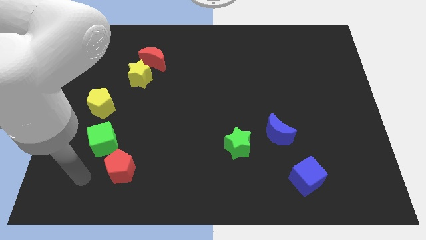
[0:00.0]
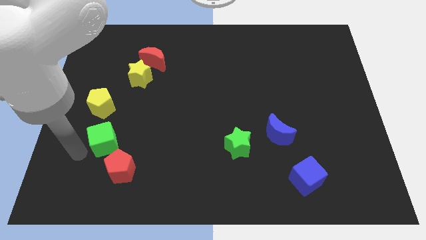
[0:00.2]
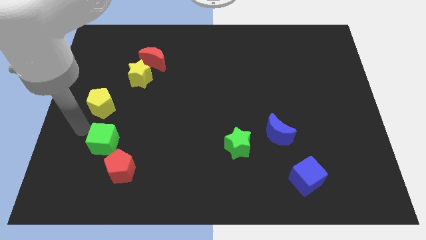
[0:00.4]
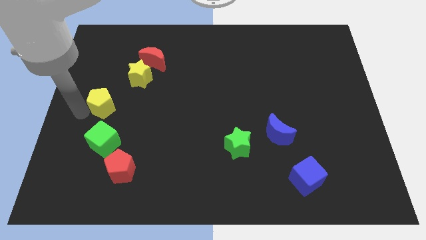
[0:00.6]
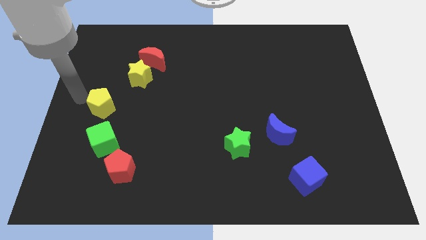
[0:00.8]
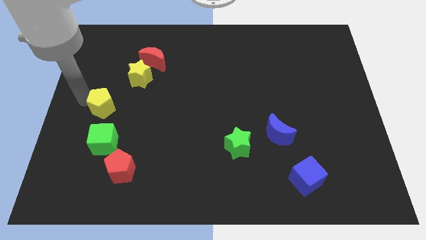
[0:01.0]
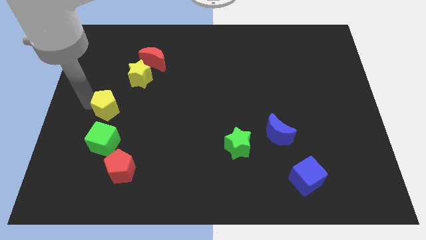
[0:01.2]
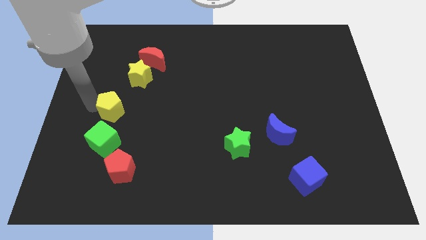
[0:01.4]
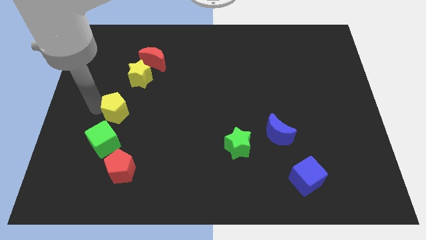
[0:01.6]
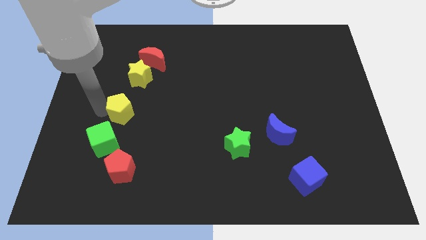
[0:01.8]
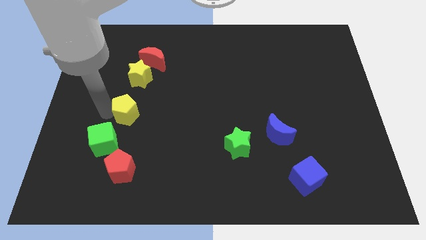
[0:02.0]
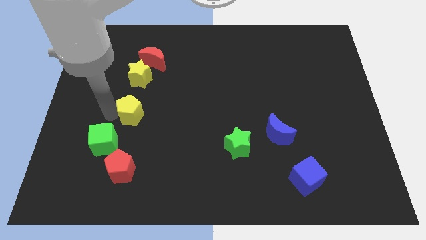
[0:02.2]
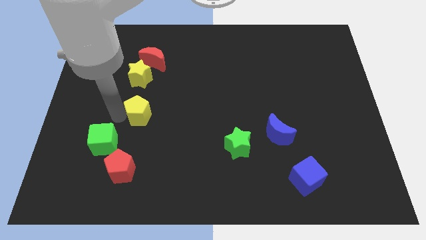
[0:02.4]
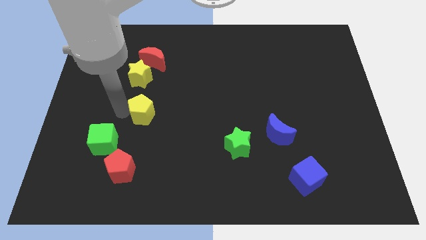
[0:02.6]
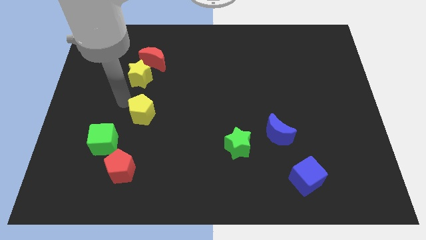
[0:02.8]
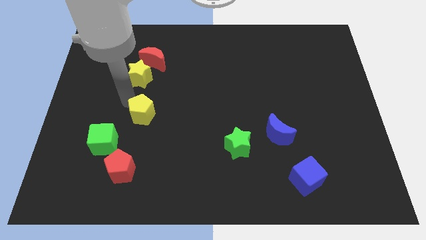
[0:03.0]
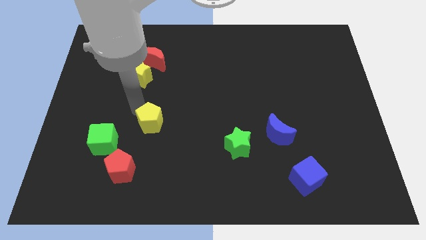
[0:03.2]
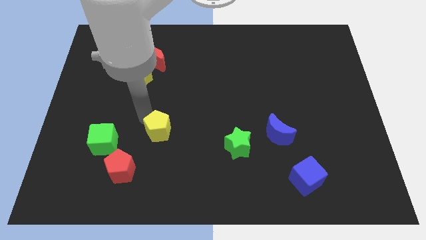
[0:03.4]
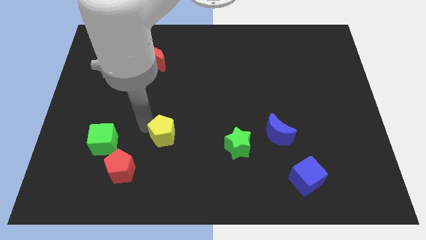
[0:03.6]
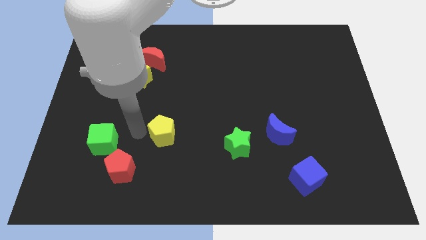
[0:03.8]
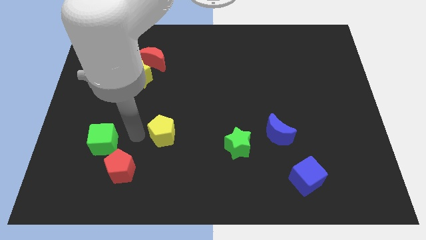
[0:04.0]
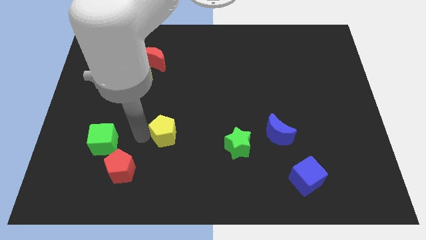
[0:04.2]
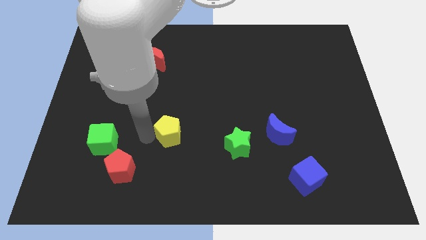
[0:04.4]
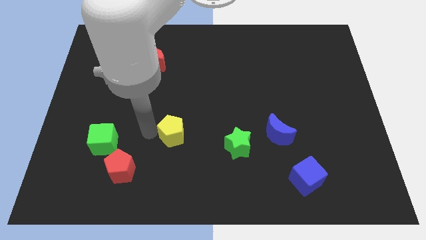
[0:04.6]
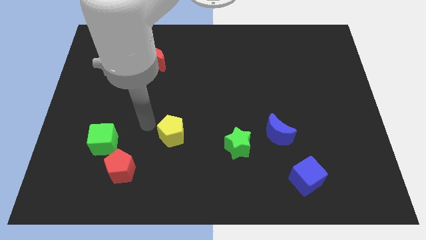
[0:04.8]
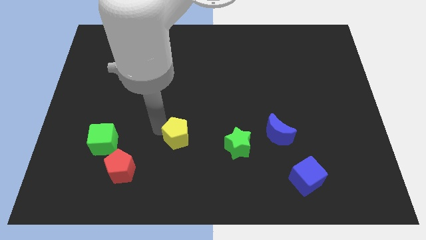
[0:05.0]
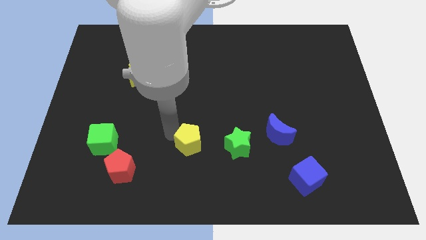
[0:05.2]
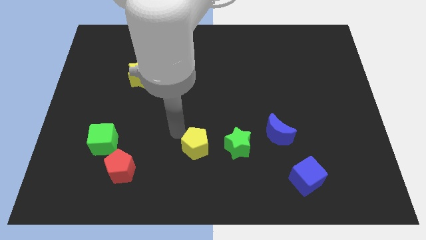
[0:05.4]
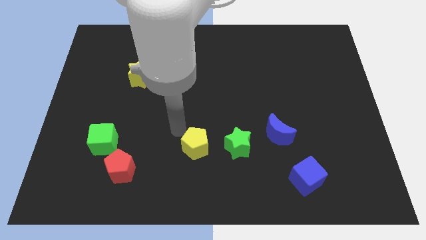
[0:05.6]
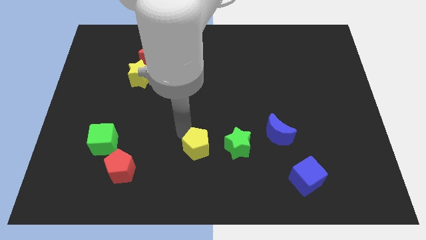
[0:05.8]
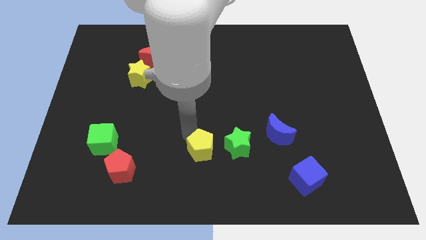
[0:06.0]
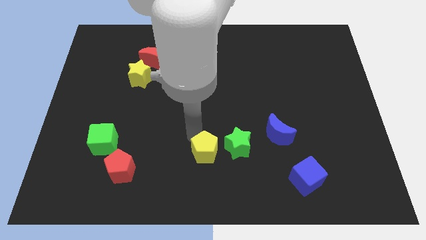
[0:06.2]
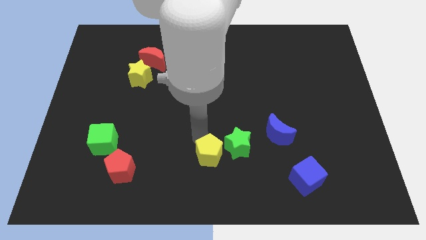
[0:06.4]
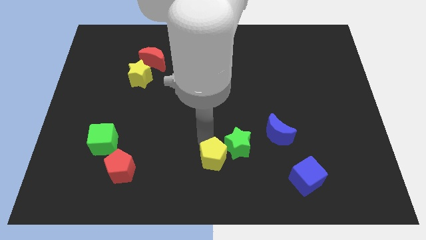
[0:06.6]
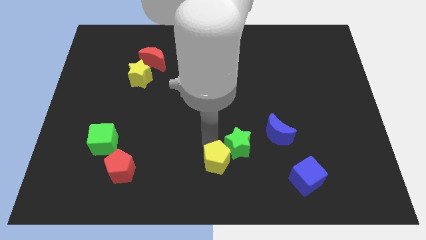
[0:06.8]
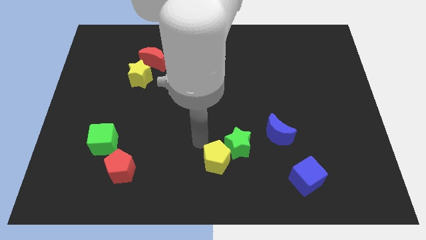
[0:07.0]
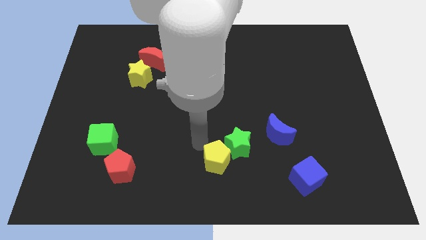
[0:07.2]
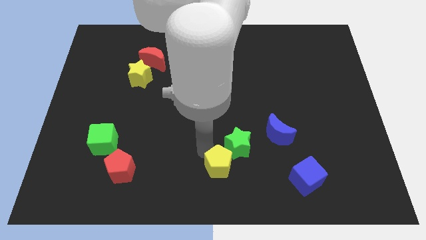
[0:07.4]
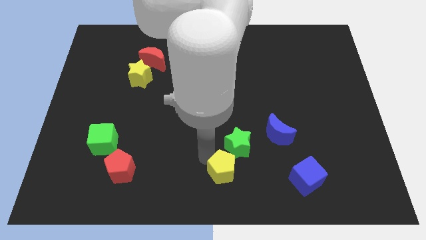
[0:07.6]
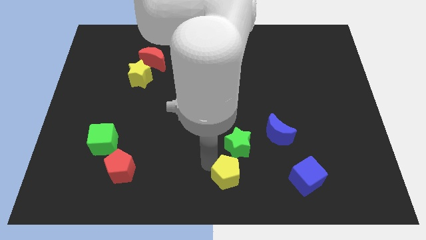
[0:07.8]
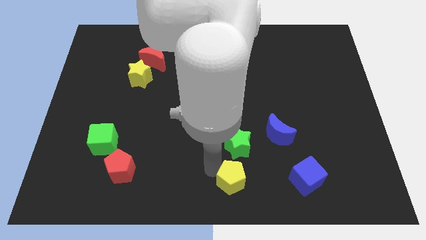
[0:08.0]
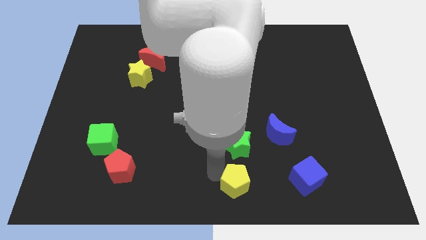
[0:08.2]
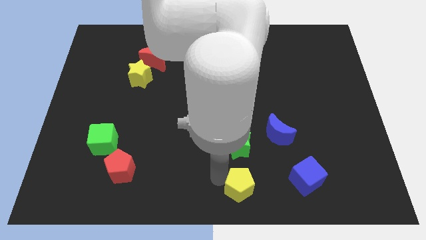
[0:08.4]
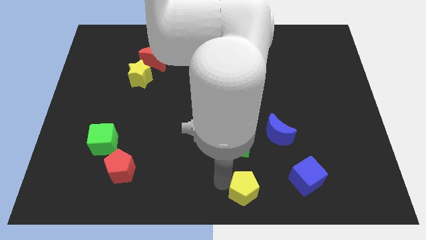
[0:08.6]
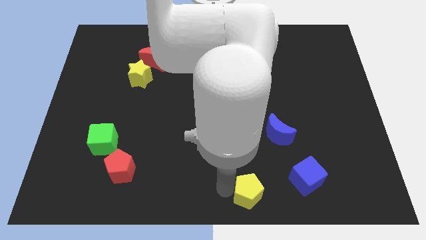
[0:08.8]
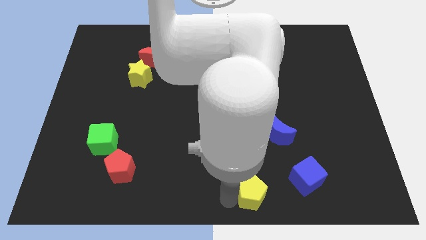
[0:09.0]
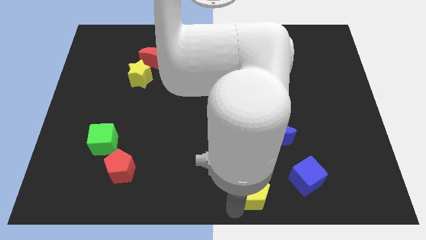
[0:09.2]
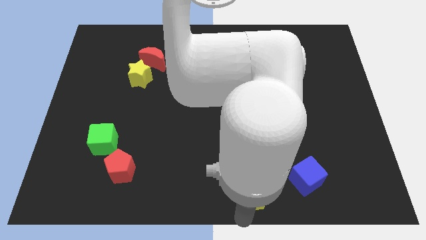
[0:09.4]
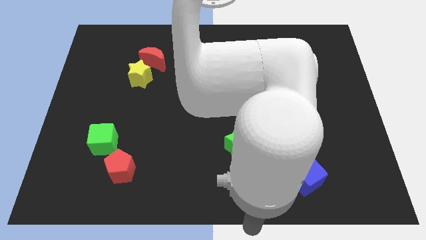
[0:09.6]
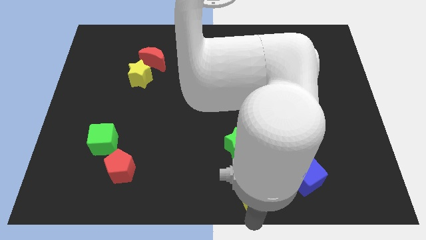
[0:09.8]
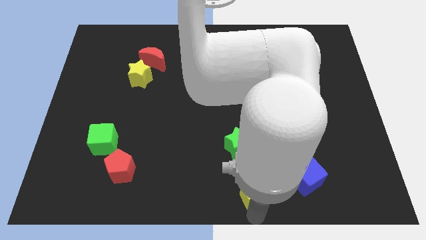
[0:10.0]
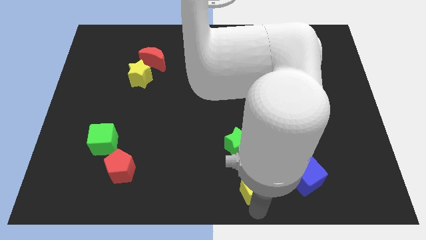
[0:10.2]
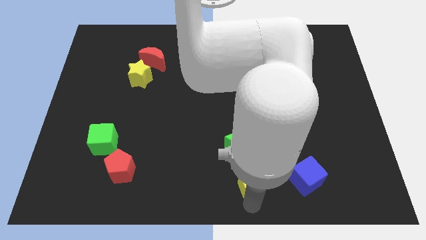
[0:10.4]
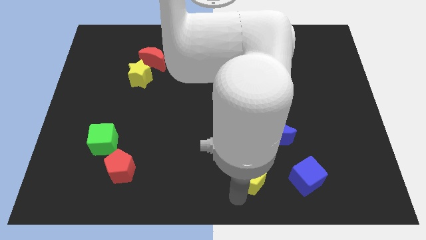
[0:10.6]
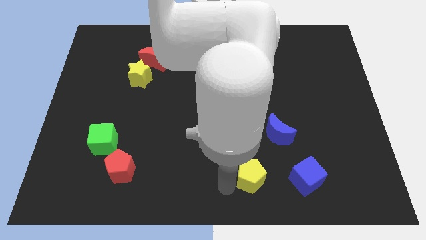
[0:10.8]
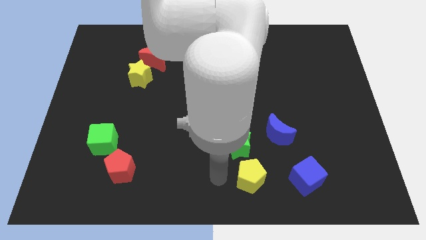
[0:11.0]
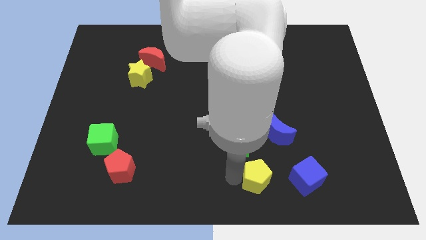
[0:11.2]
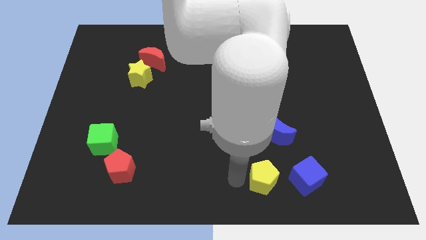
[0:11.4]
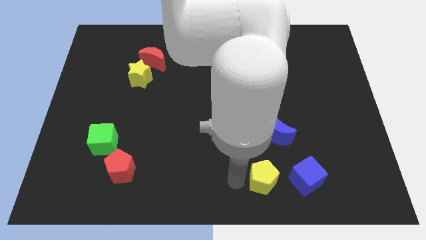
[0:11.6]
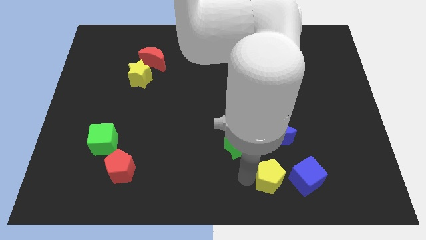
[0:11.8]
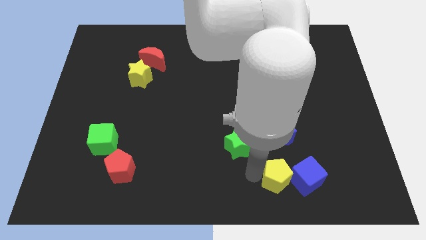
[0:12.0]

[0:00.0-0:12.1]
put the yellow pentagon towards the blue cube

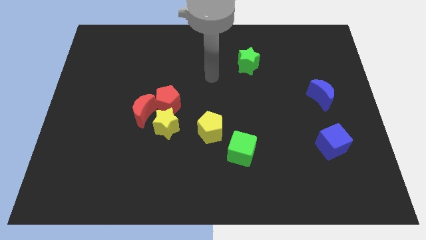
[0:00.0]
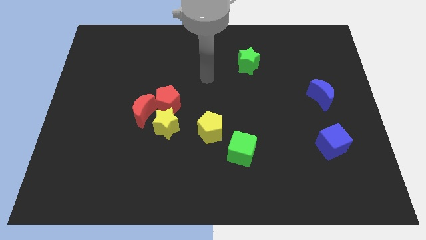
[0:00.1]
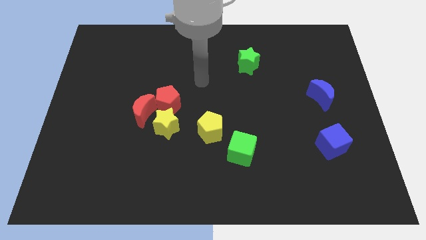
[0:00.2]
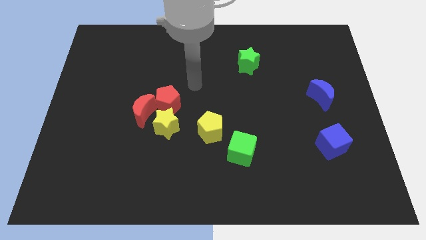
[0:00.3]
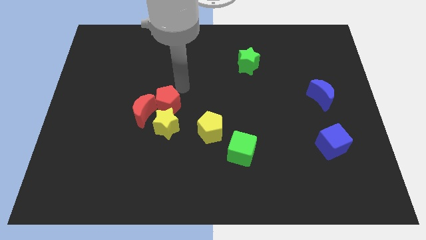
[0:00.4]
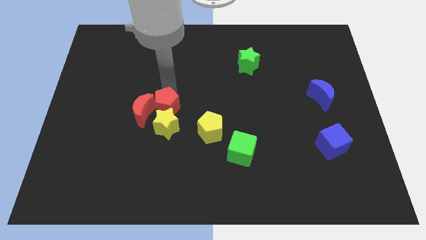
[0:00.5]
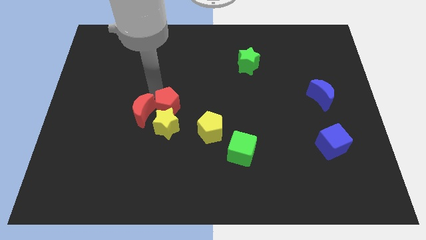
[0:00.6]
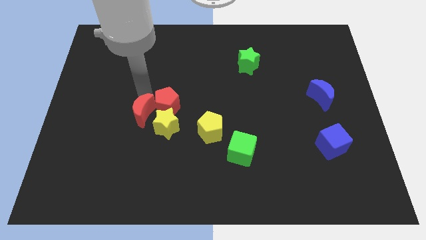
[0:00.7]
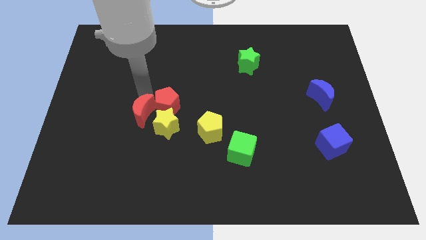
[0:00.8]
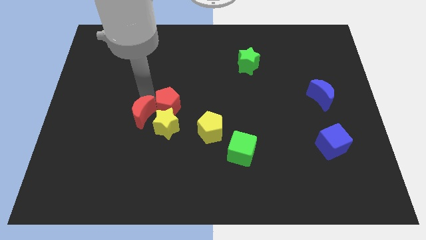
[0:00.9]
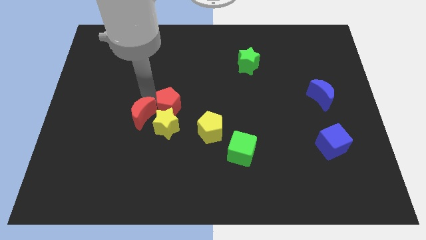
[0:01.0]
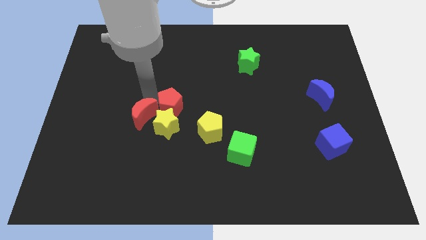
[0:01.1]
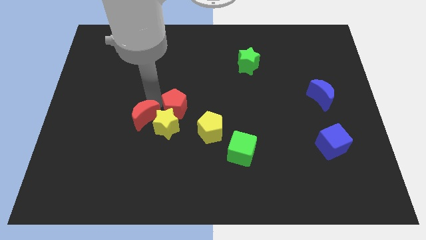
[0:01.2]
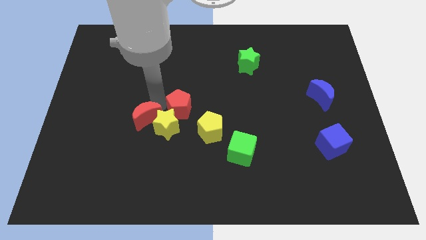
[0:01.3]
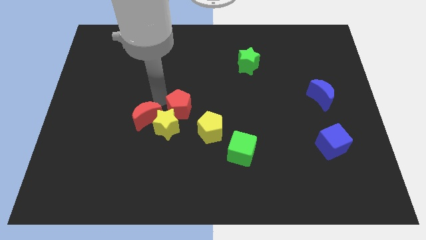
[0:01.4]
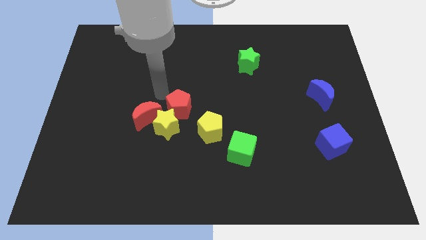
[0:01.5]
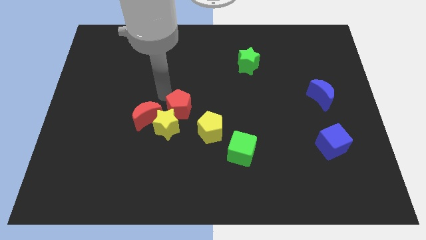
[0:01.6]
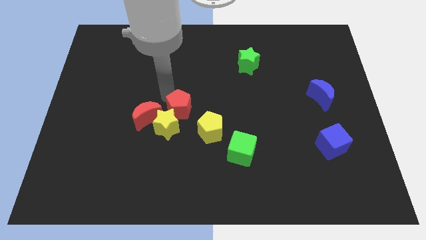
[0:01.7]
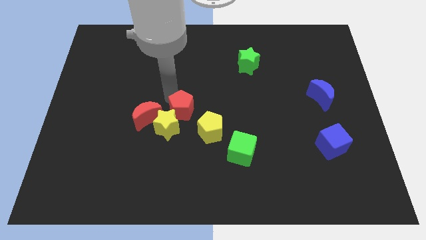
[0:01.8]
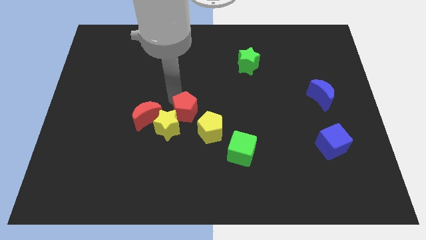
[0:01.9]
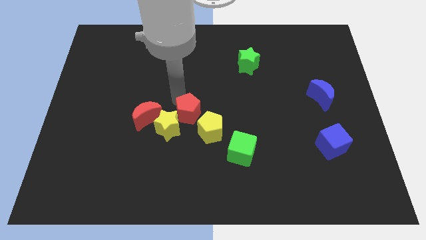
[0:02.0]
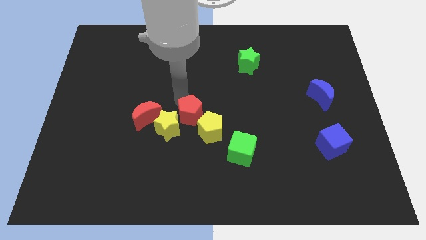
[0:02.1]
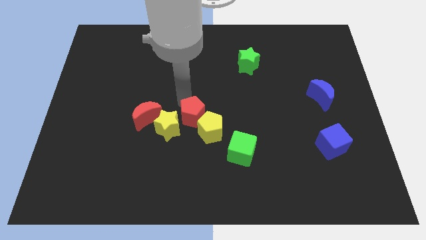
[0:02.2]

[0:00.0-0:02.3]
move the red pentagon close to the yellow pentagon
